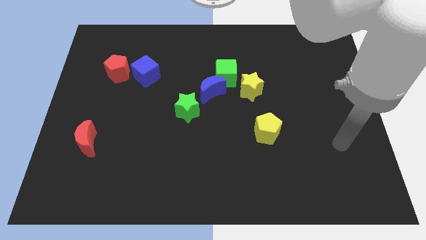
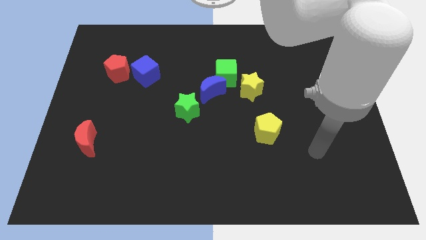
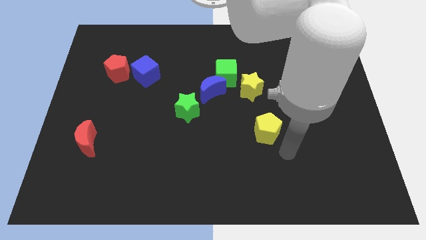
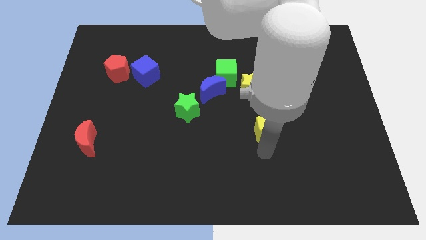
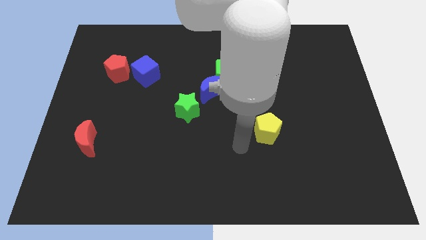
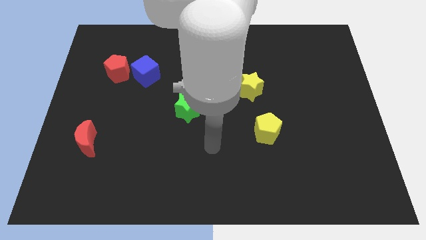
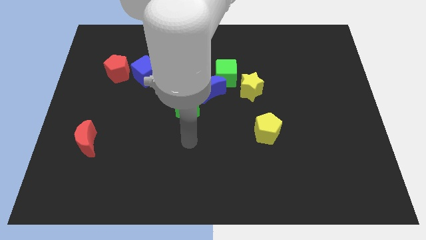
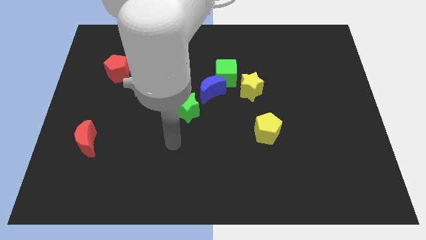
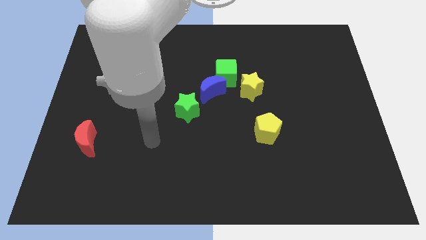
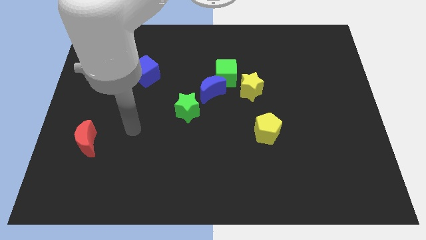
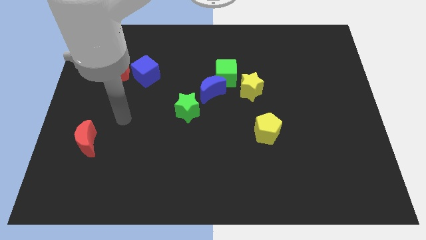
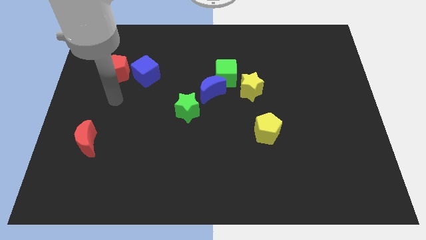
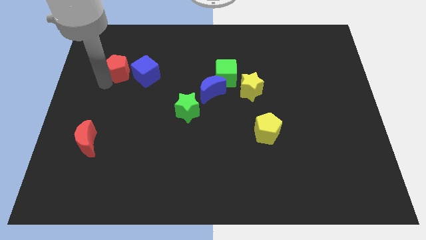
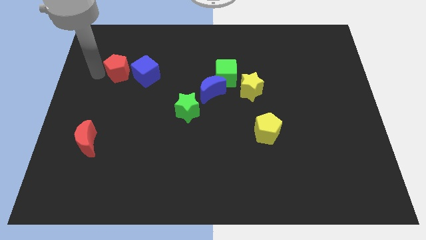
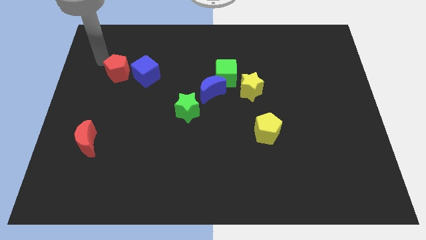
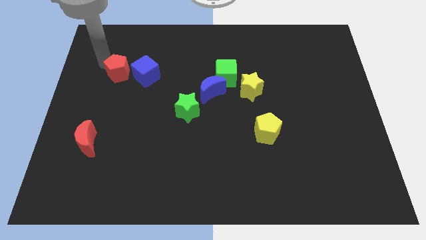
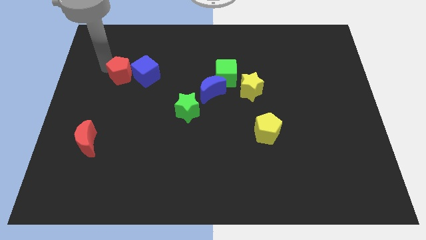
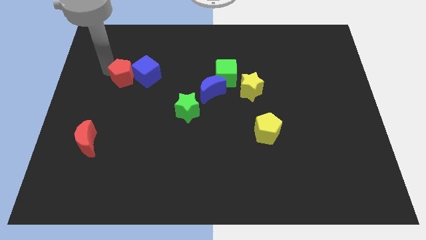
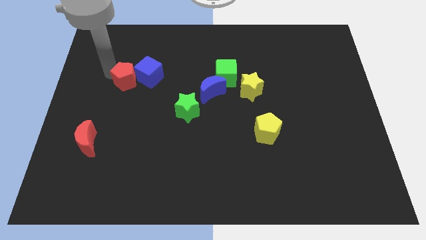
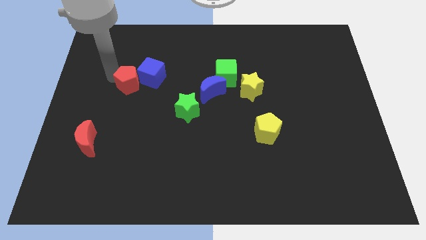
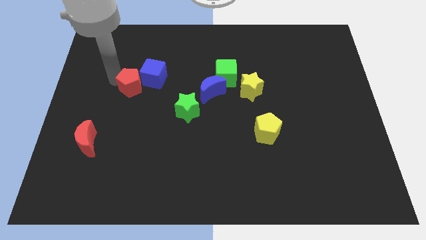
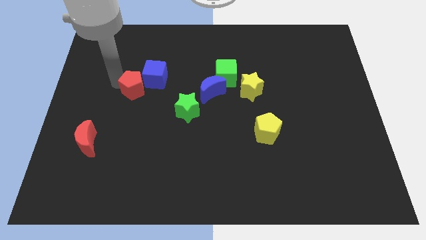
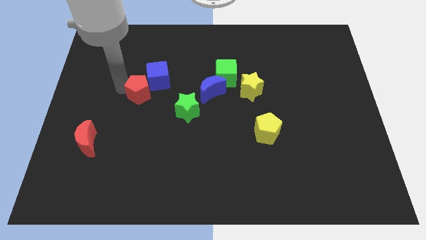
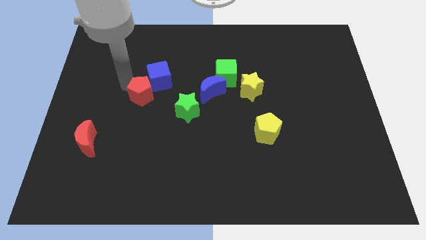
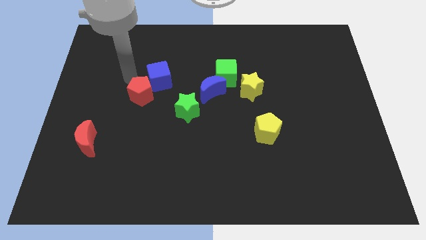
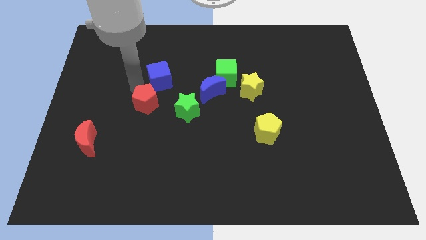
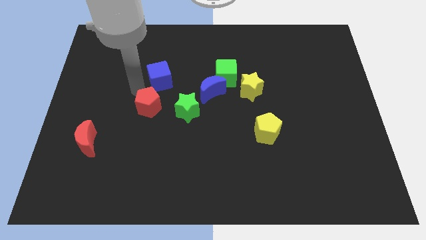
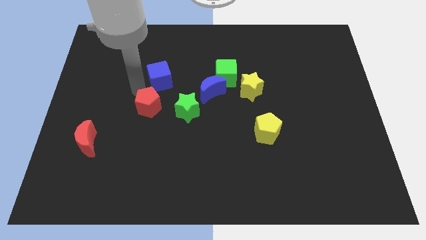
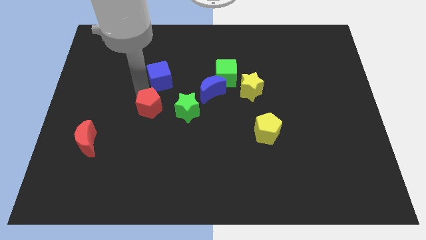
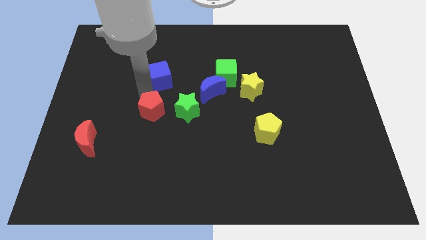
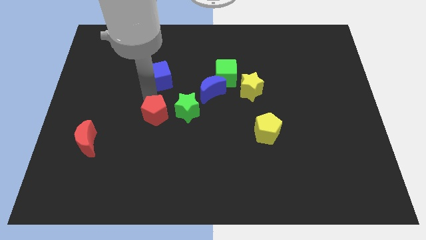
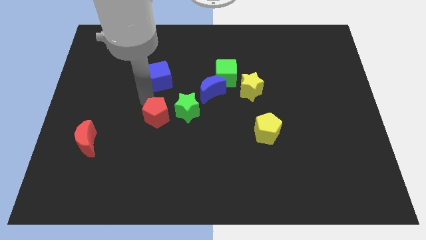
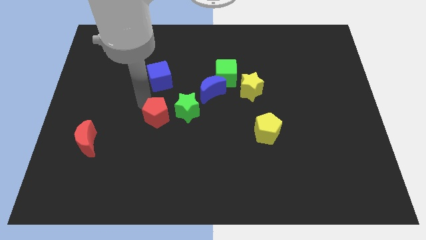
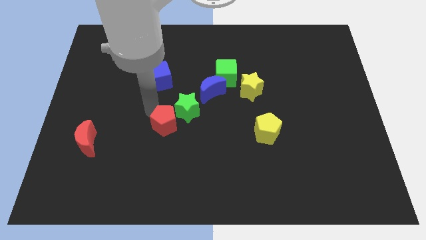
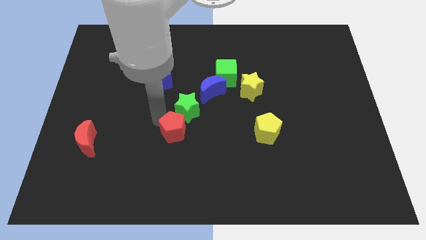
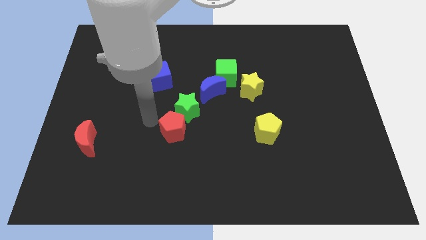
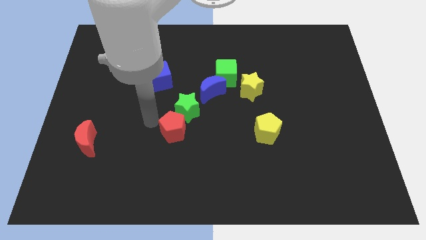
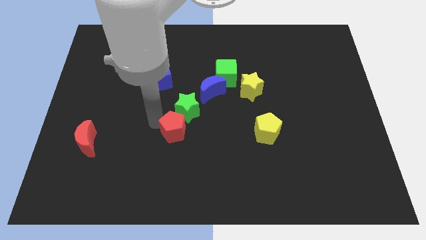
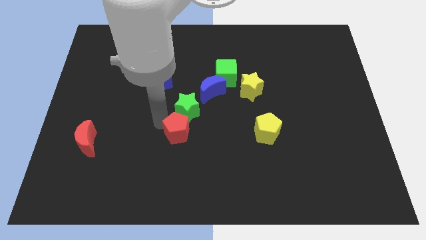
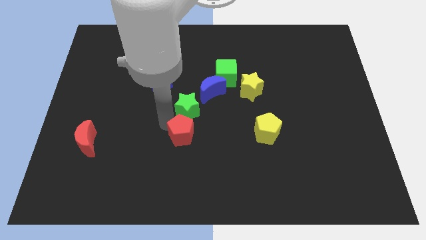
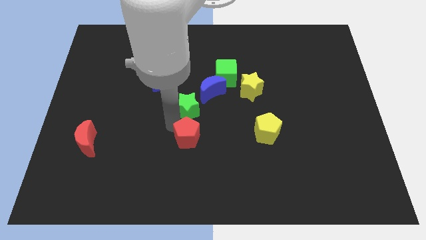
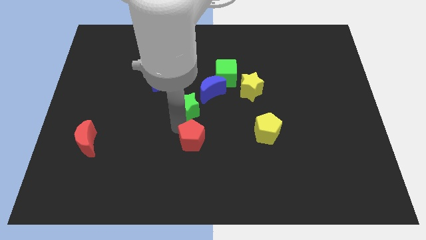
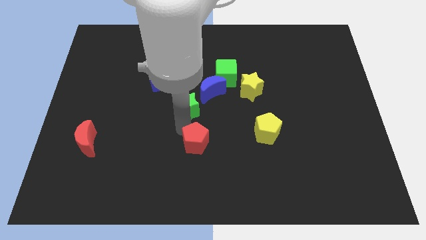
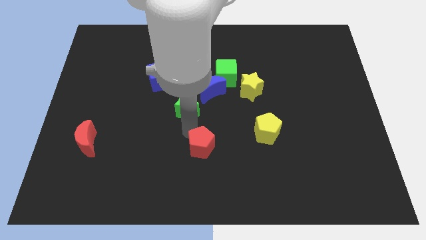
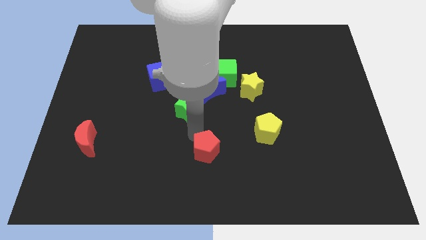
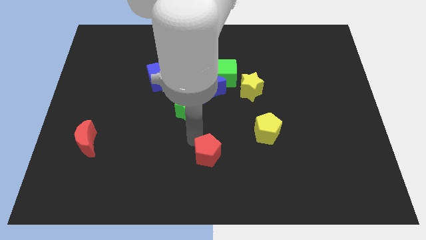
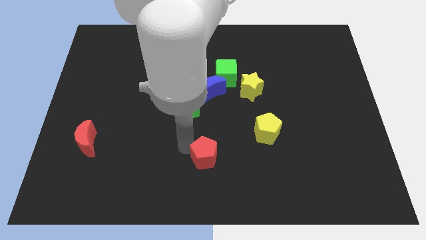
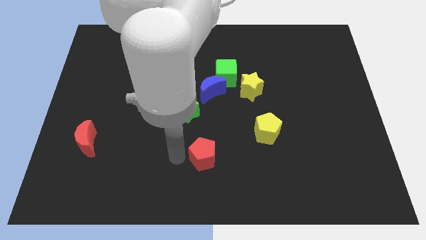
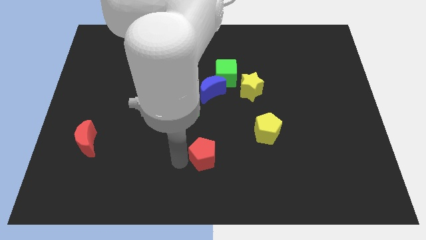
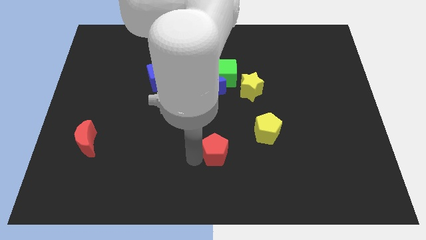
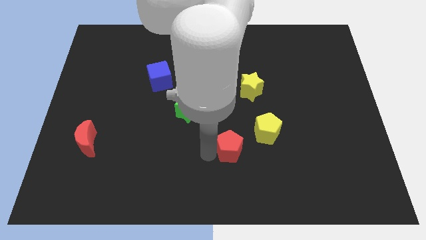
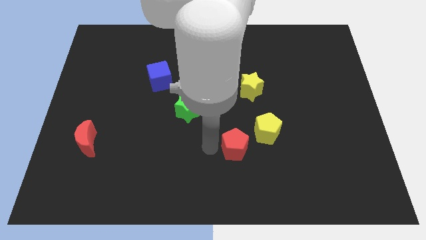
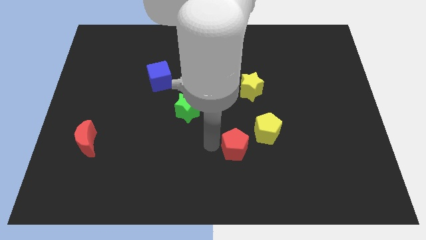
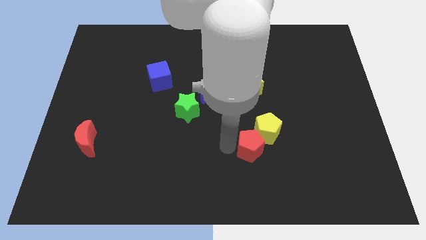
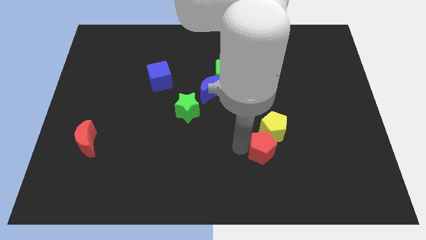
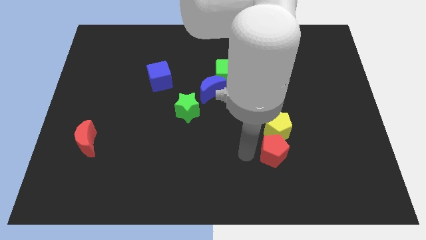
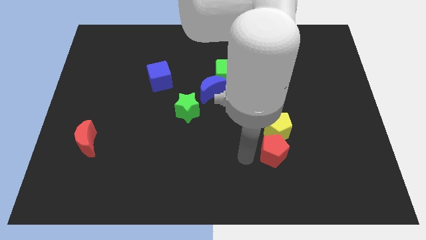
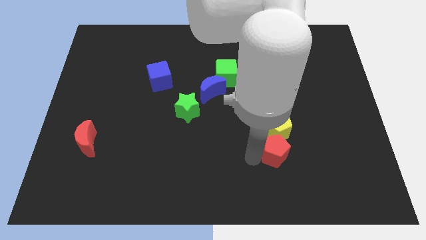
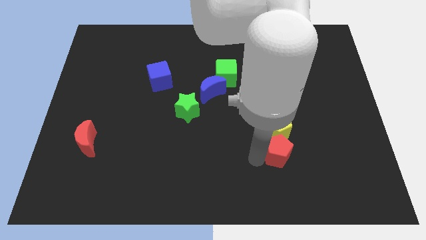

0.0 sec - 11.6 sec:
move the red pentagon diagonally down and to the right of the yellow pentagon

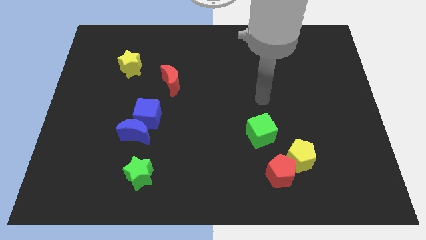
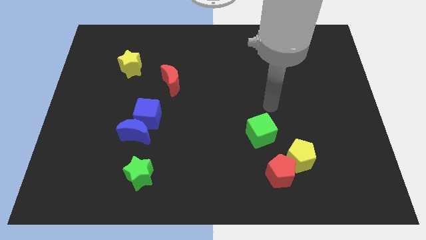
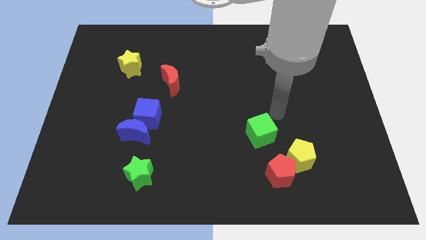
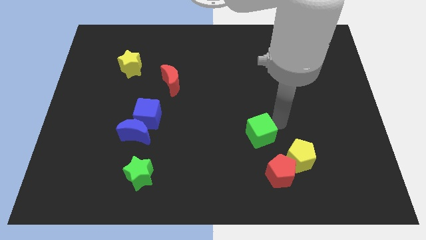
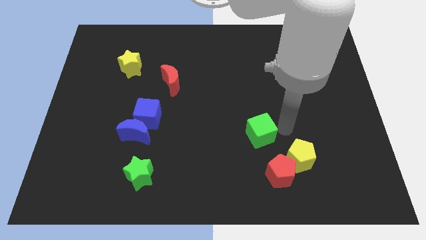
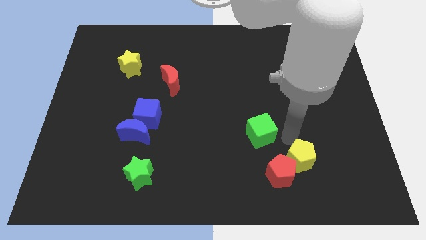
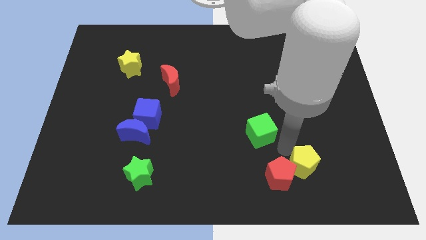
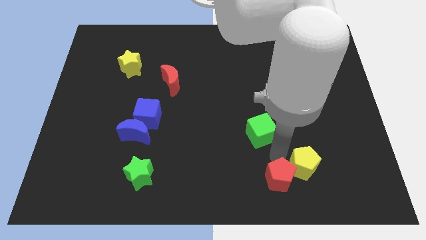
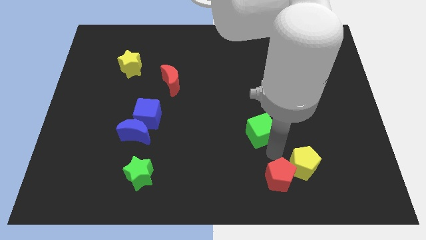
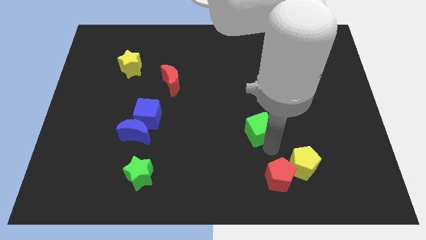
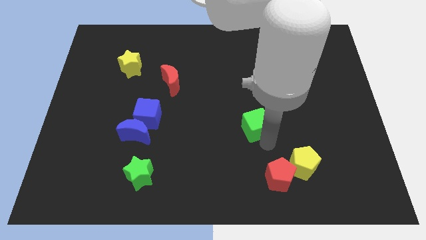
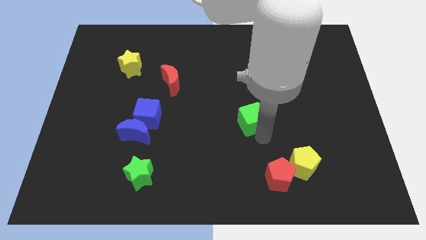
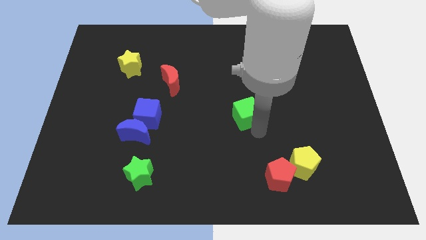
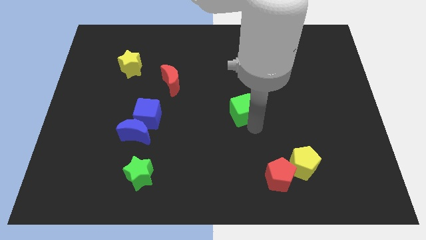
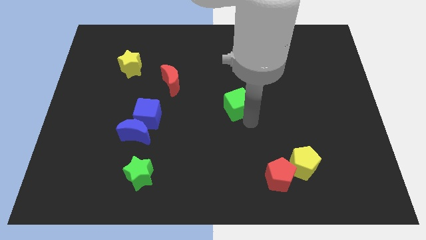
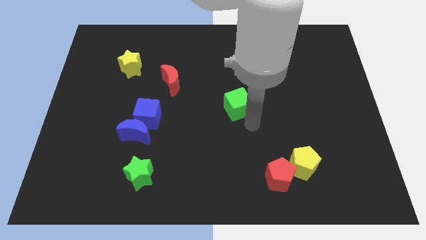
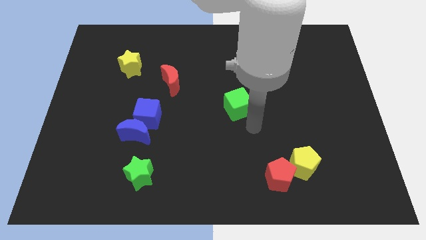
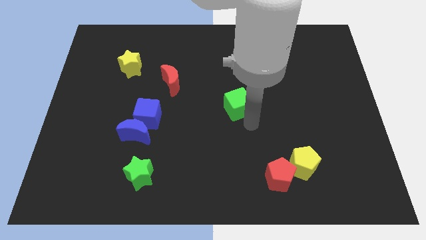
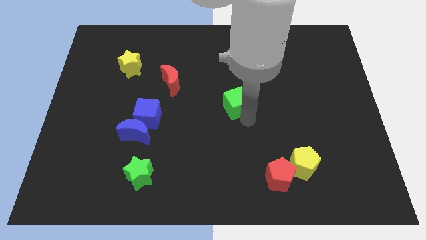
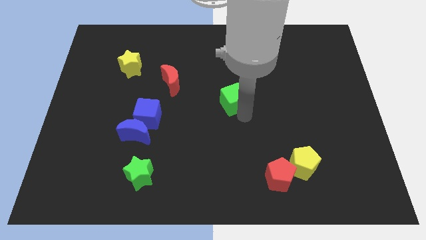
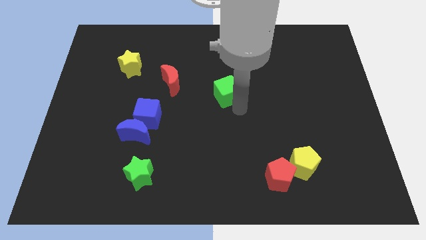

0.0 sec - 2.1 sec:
push the green cube to the right of the red moon

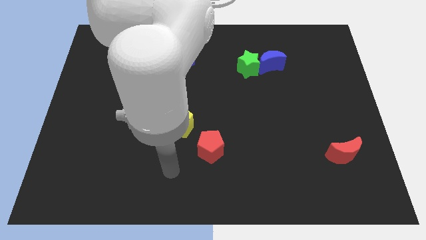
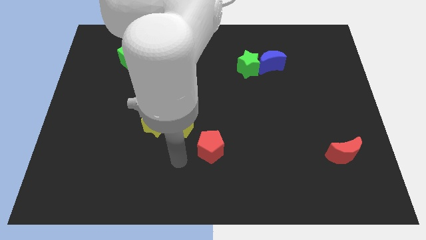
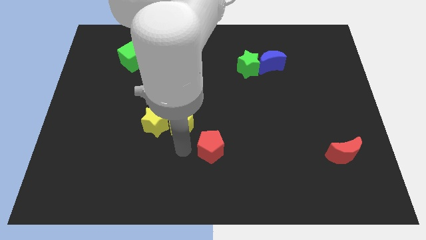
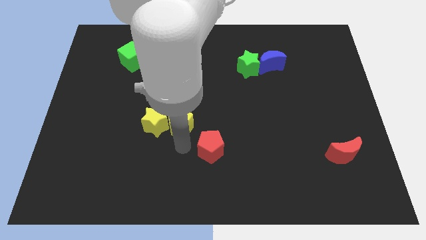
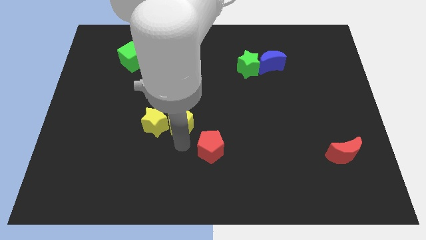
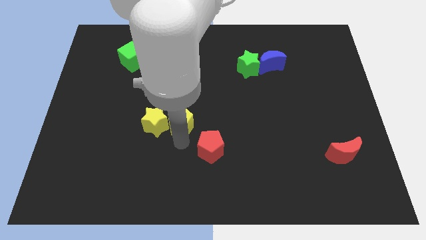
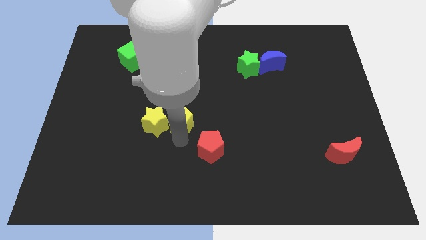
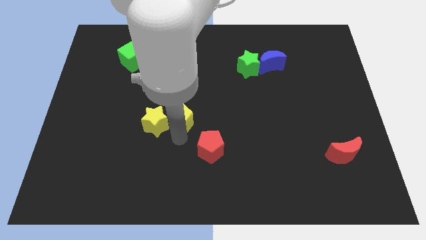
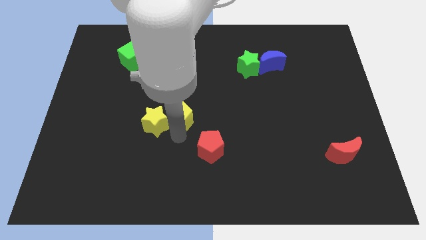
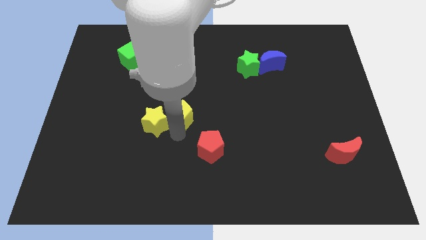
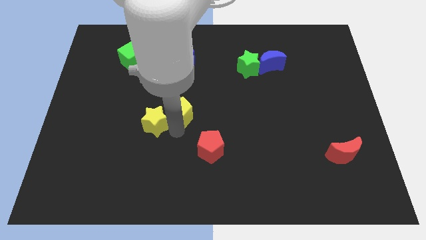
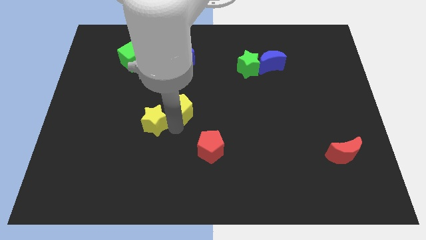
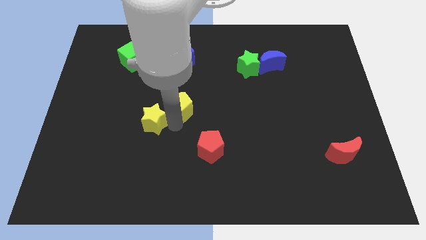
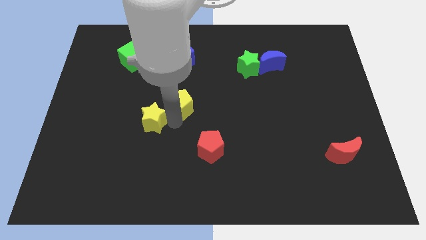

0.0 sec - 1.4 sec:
slide the yellow pentagon to the bottom side of the blue cube
